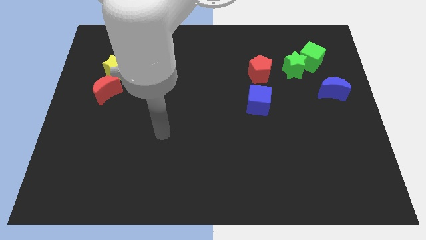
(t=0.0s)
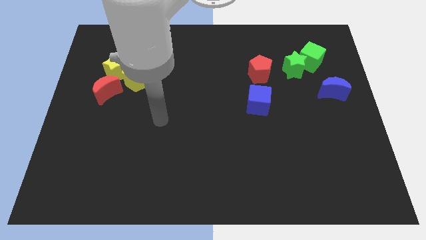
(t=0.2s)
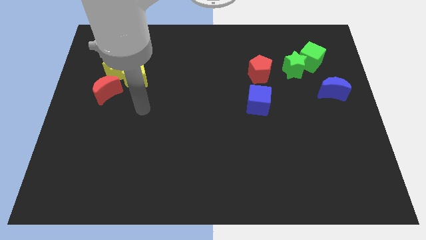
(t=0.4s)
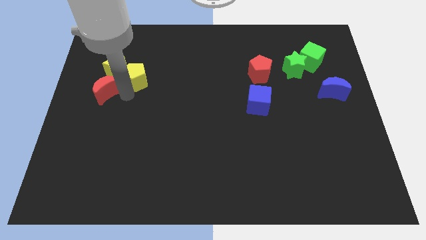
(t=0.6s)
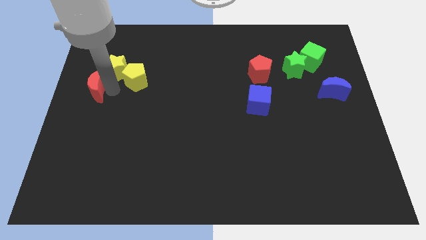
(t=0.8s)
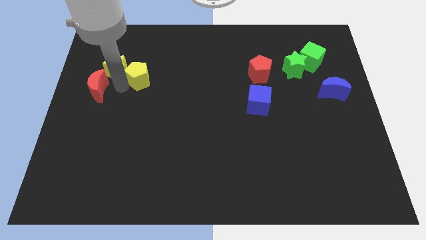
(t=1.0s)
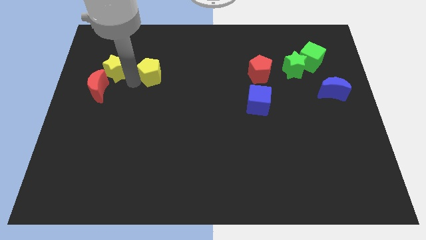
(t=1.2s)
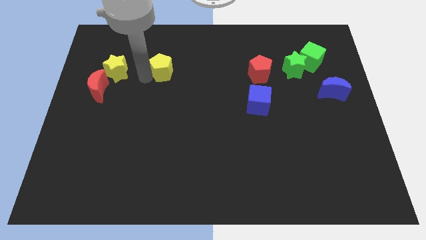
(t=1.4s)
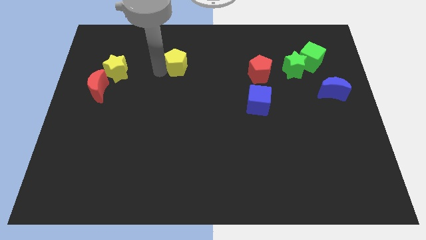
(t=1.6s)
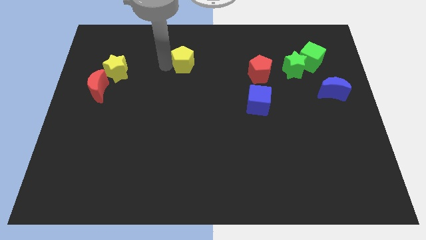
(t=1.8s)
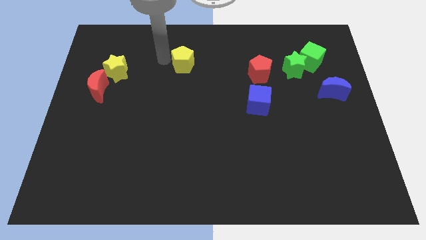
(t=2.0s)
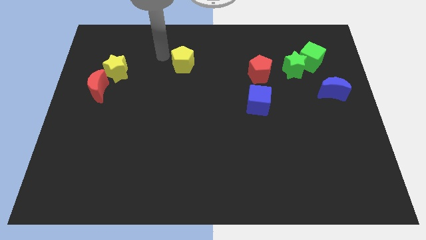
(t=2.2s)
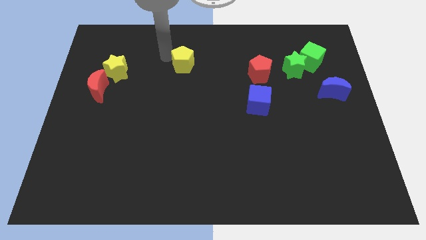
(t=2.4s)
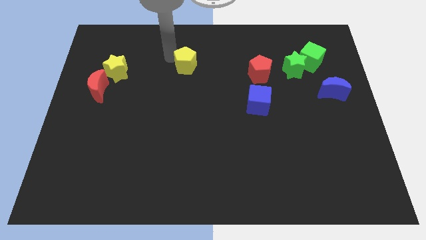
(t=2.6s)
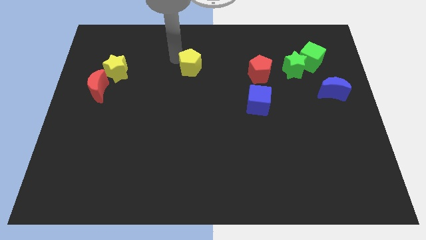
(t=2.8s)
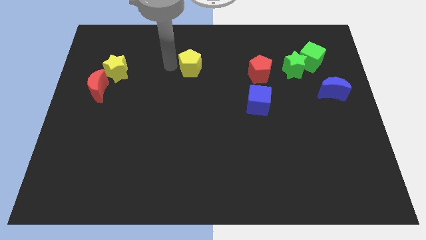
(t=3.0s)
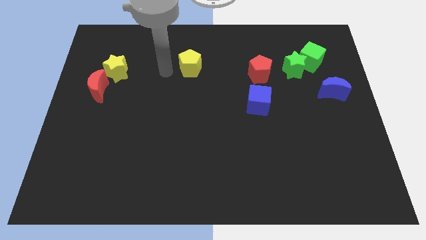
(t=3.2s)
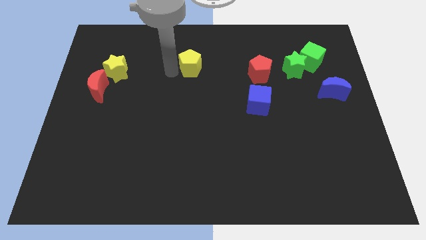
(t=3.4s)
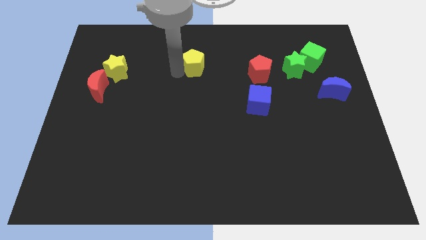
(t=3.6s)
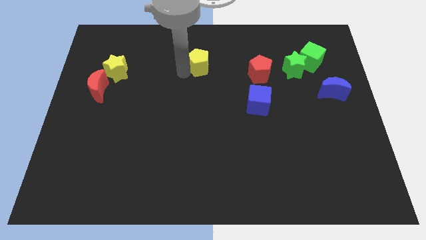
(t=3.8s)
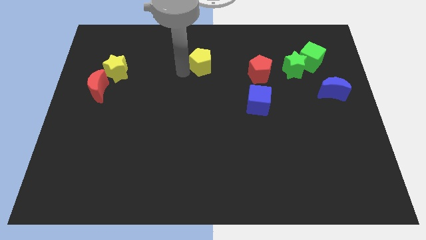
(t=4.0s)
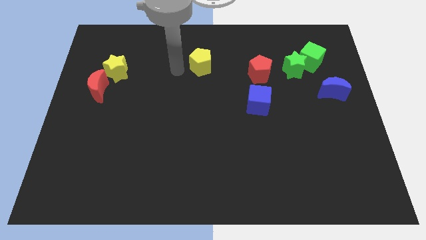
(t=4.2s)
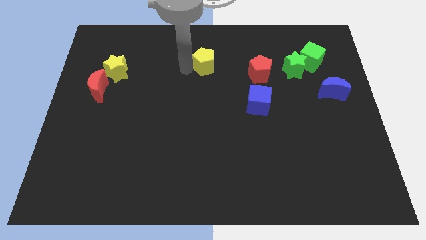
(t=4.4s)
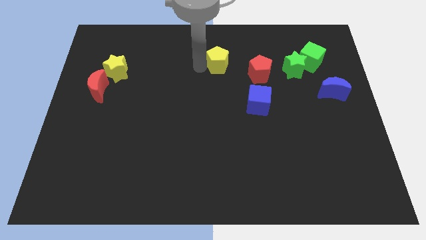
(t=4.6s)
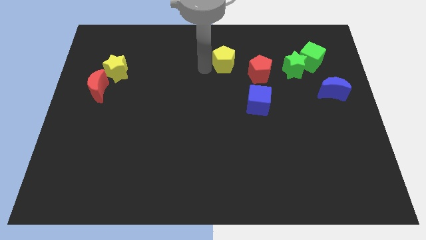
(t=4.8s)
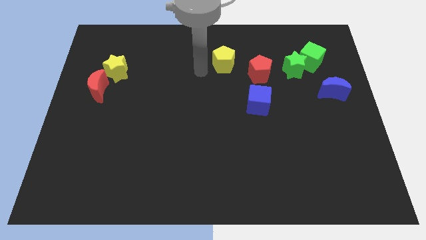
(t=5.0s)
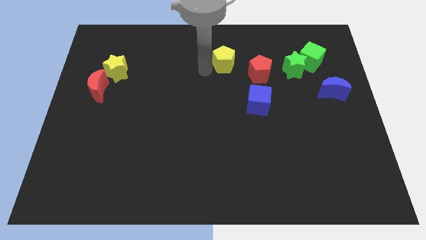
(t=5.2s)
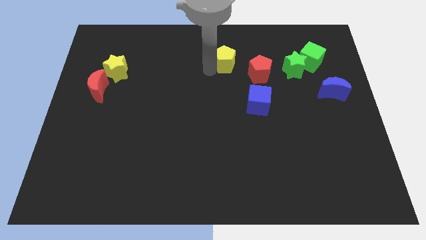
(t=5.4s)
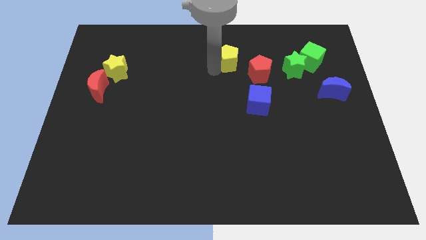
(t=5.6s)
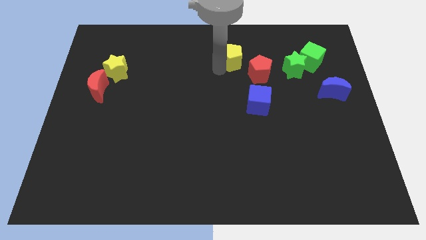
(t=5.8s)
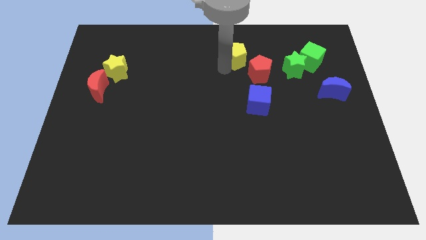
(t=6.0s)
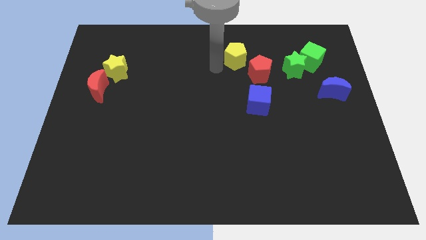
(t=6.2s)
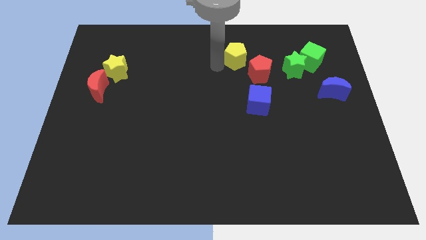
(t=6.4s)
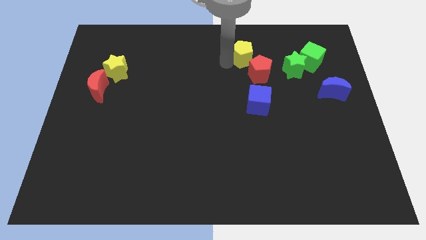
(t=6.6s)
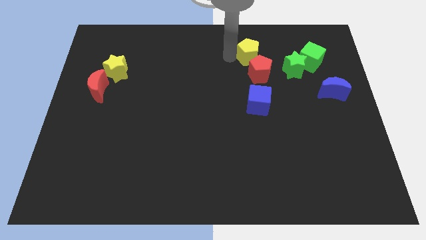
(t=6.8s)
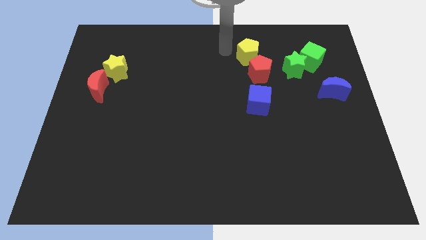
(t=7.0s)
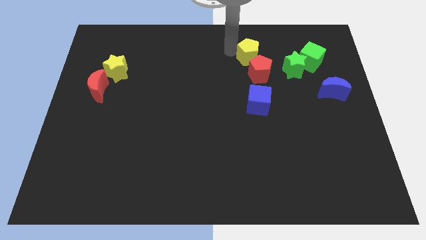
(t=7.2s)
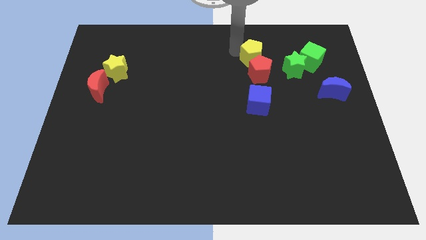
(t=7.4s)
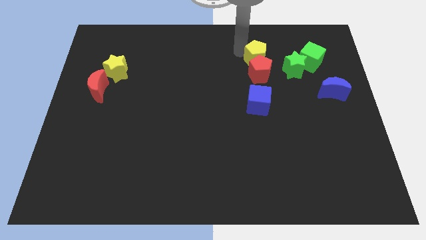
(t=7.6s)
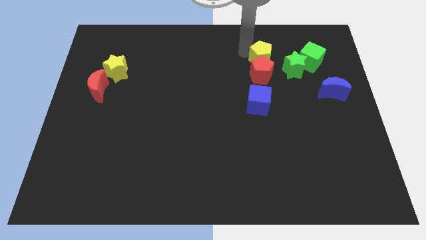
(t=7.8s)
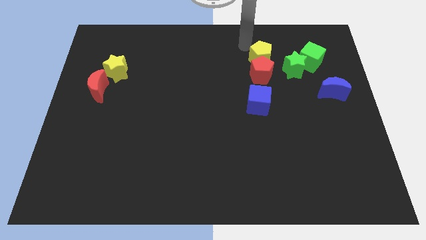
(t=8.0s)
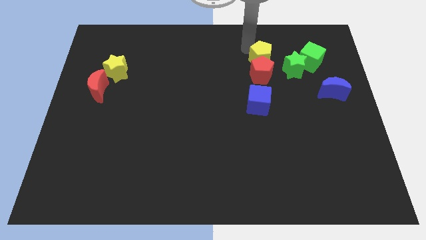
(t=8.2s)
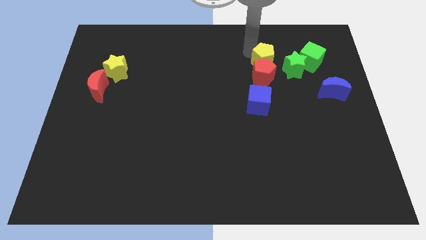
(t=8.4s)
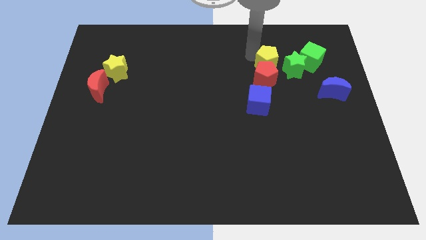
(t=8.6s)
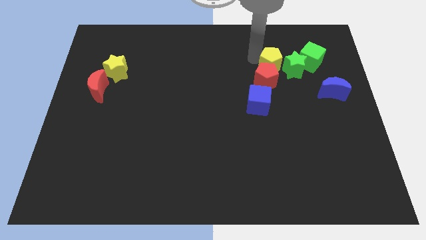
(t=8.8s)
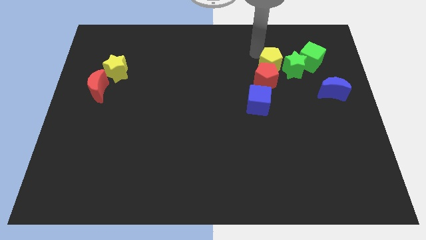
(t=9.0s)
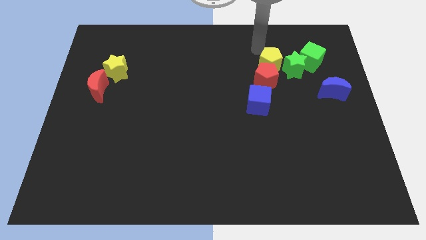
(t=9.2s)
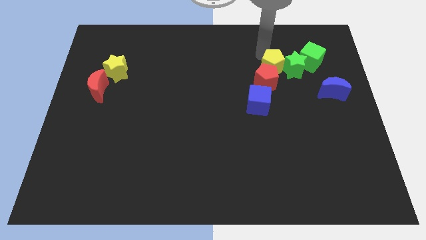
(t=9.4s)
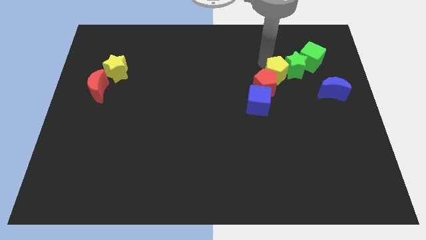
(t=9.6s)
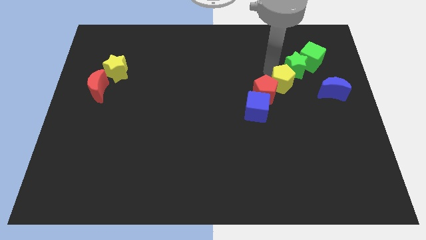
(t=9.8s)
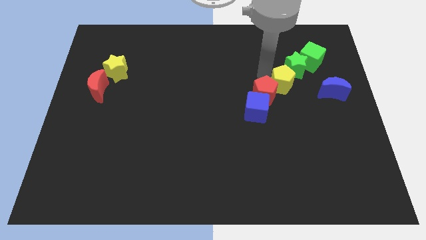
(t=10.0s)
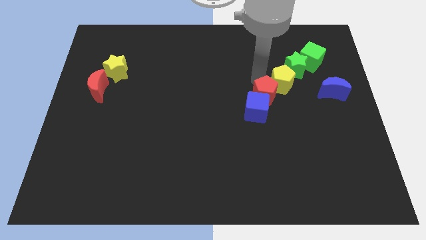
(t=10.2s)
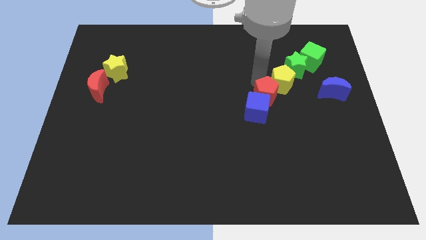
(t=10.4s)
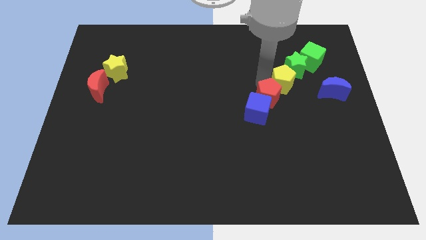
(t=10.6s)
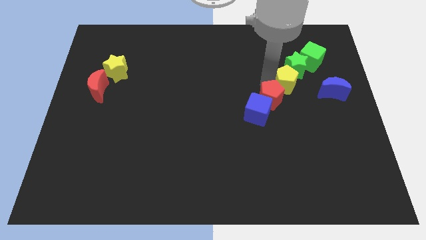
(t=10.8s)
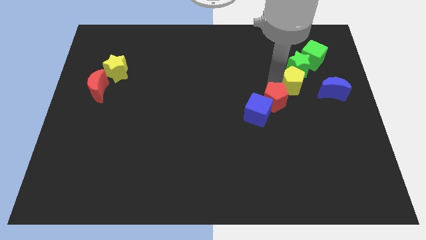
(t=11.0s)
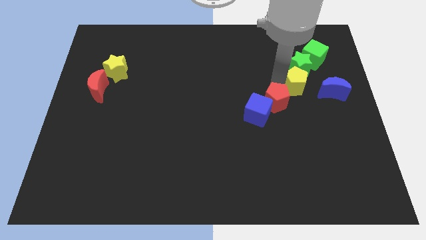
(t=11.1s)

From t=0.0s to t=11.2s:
move the yellow pentagon diagonally down and to the right of the green star
